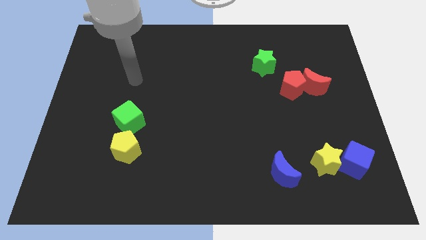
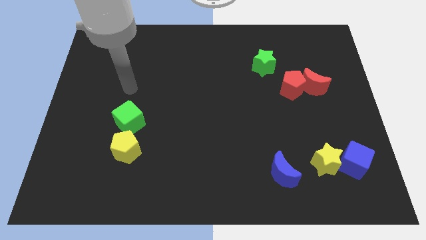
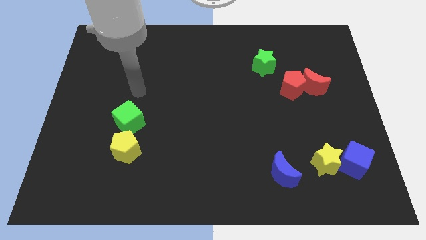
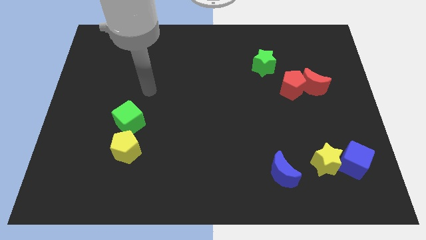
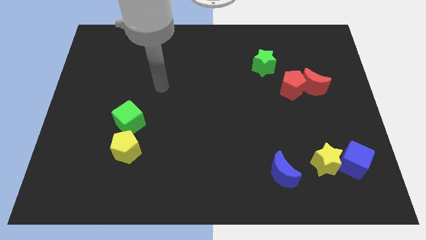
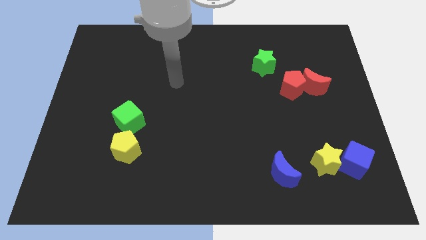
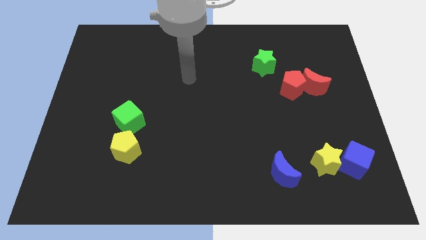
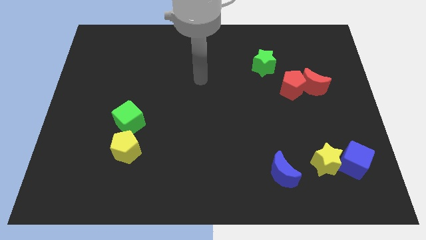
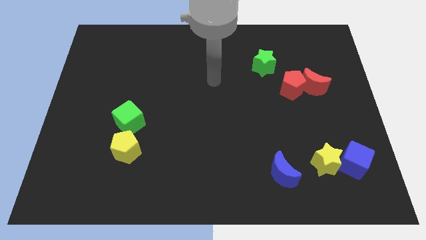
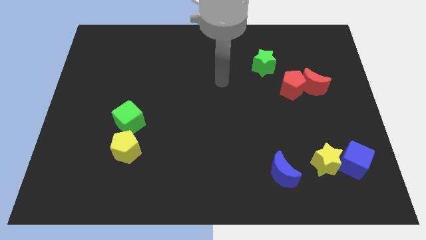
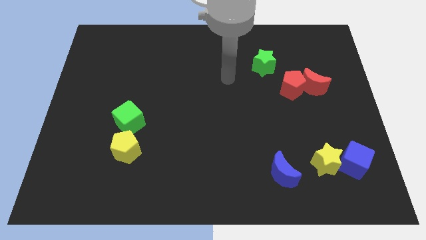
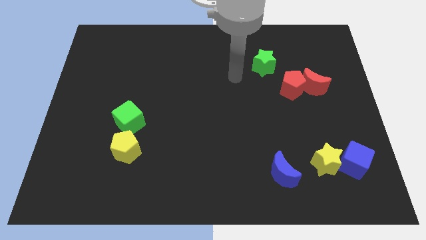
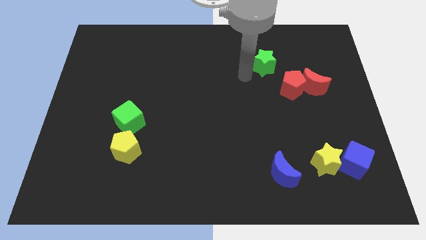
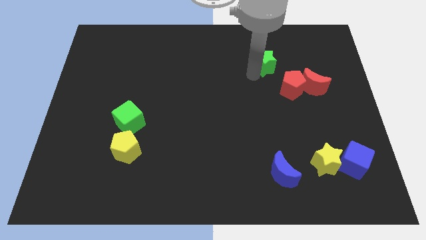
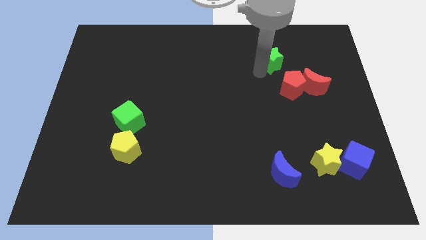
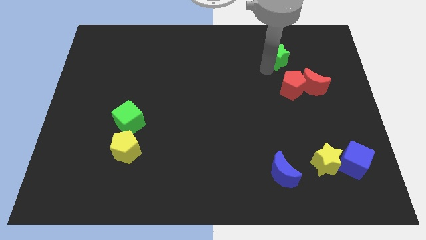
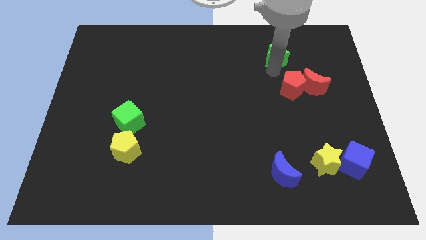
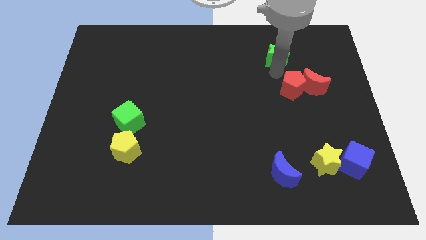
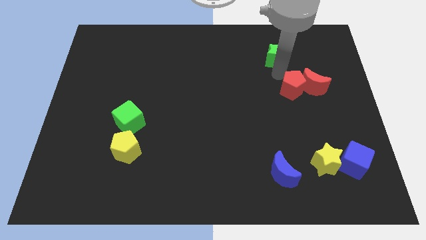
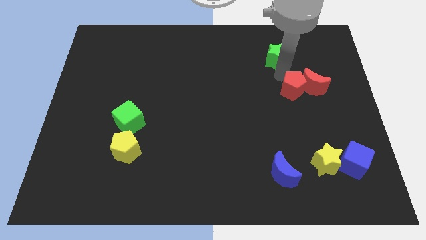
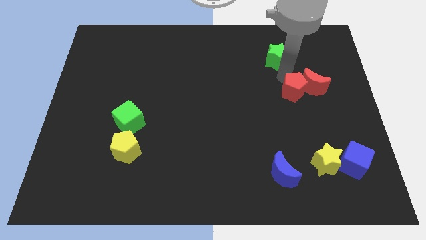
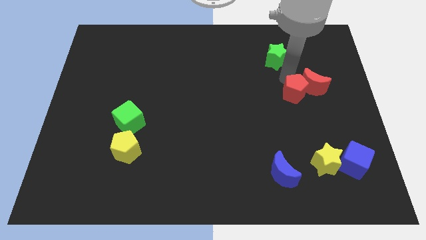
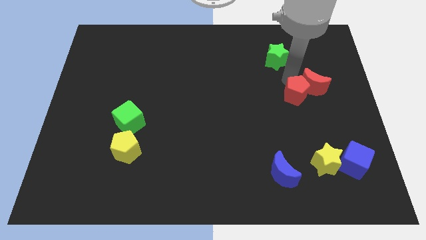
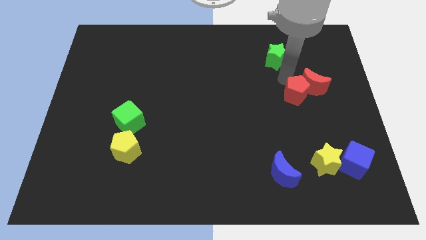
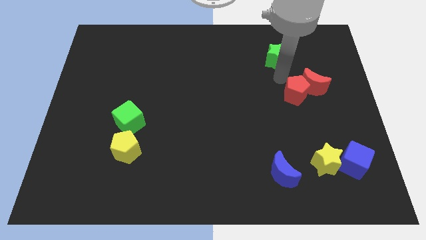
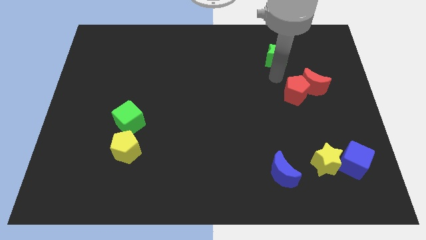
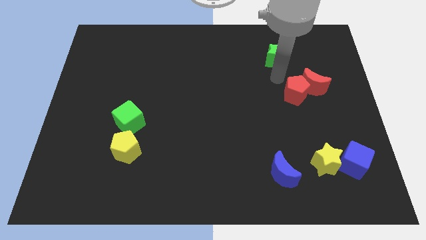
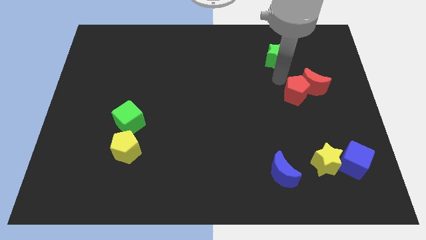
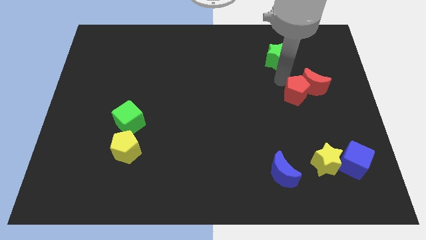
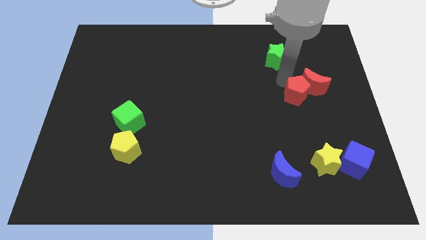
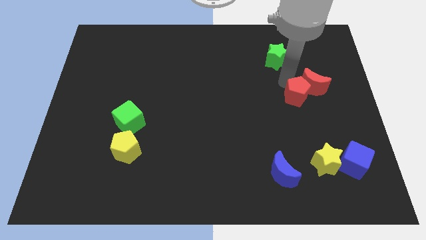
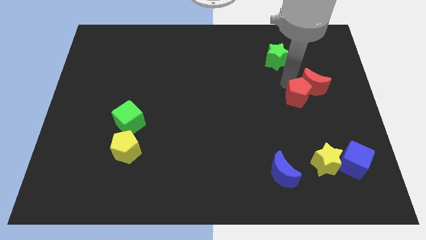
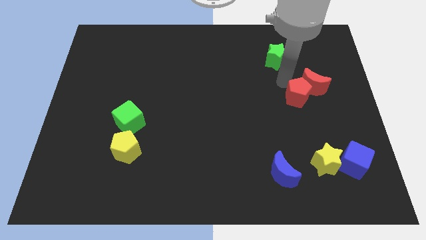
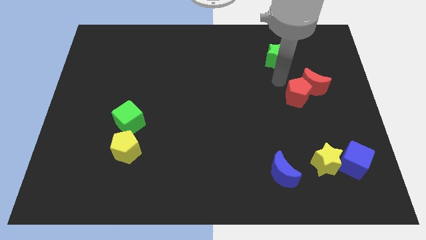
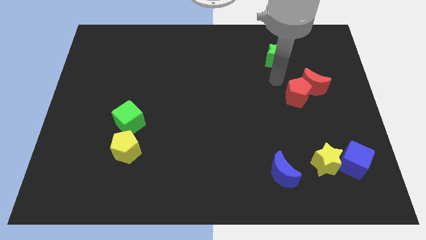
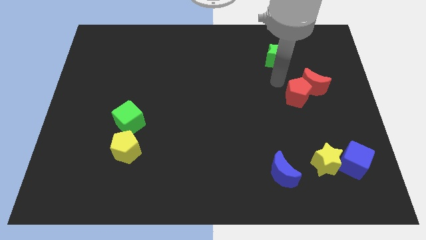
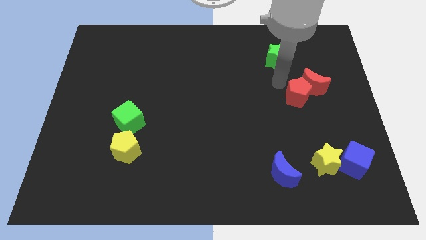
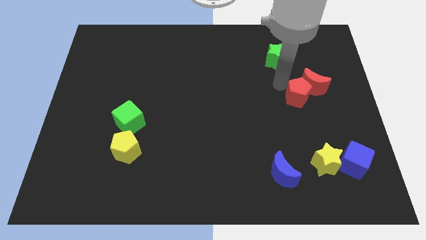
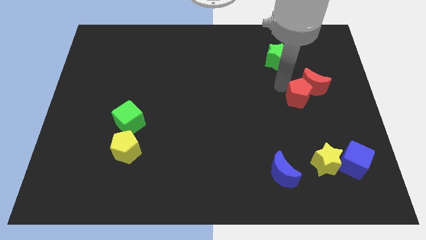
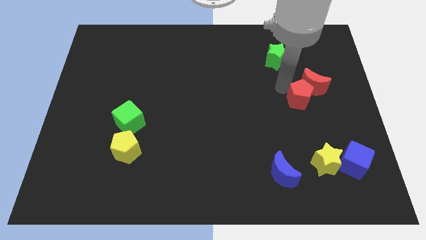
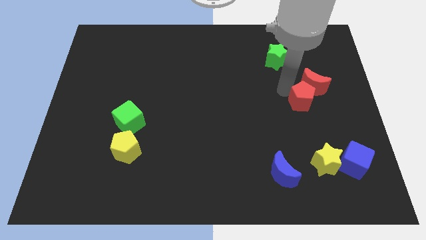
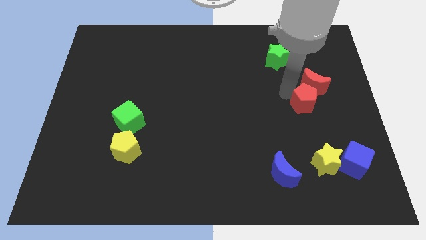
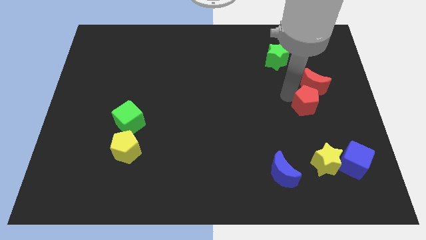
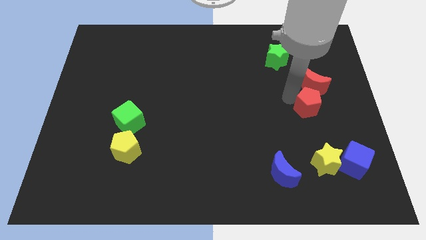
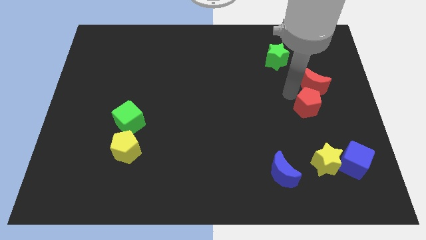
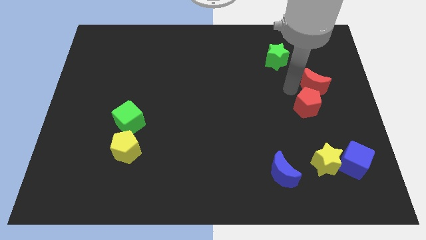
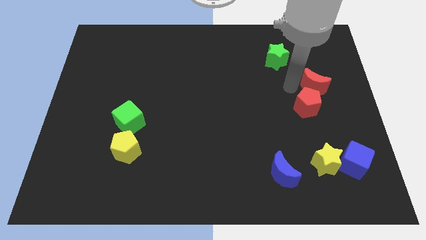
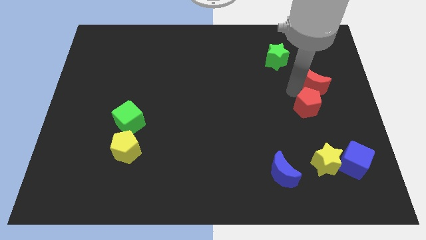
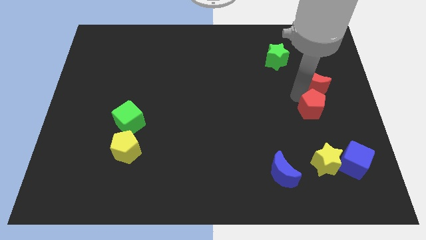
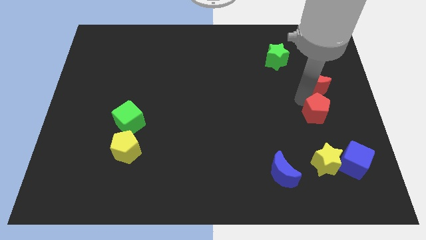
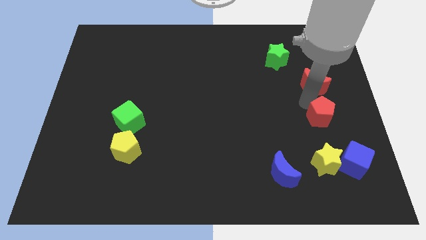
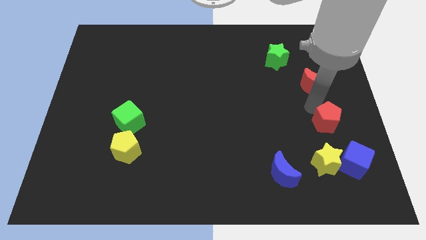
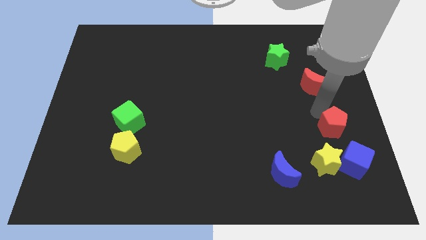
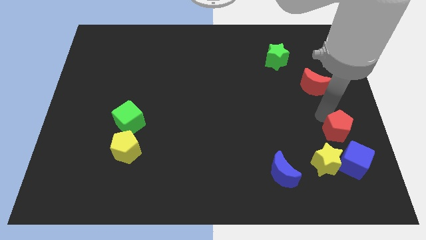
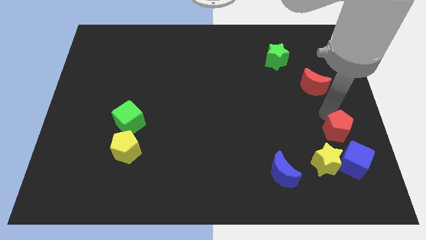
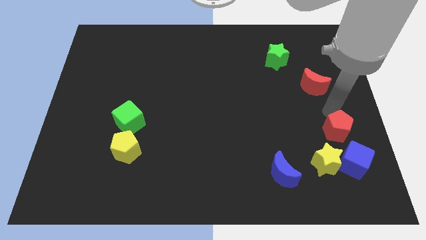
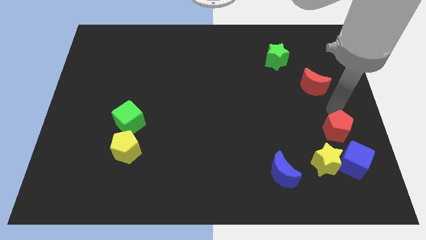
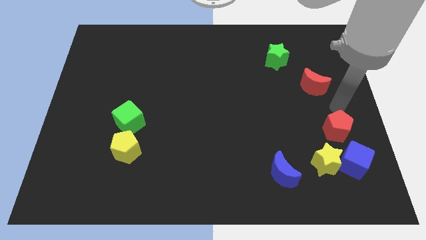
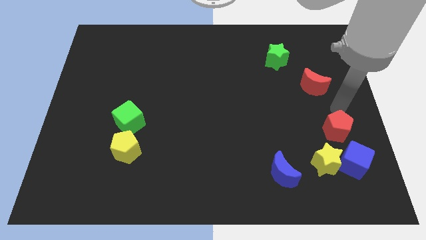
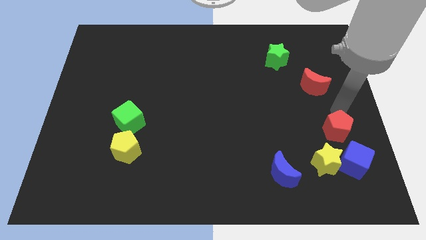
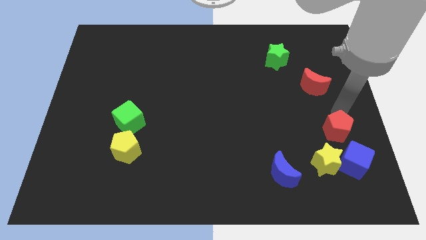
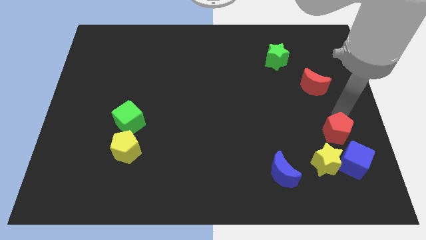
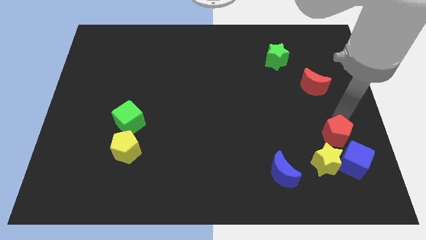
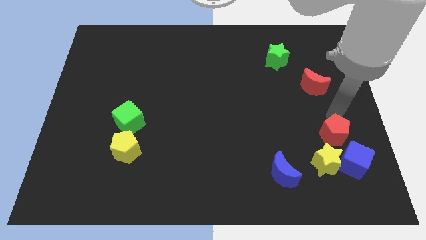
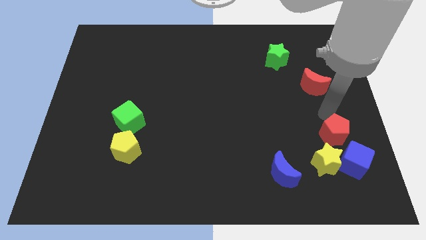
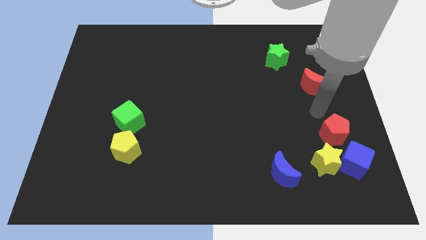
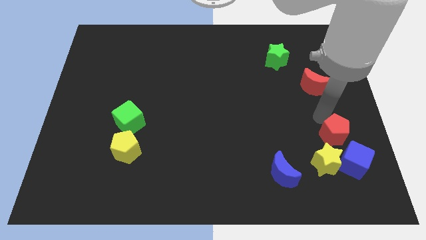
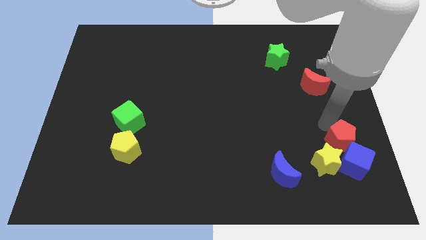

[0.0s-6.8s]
put the red pentagon next to the blue cube

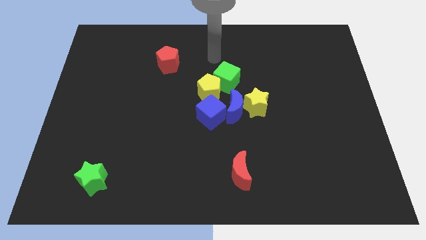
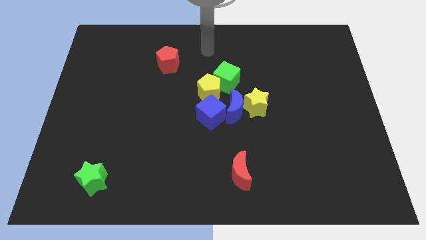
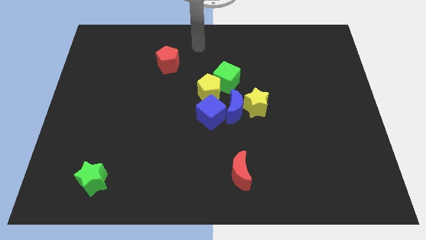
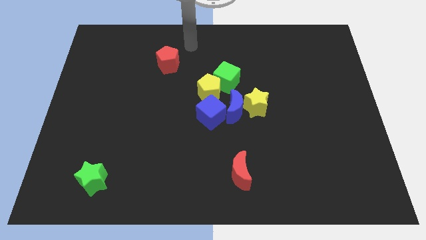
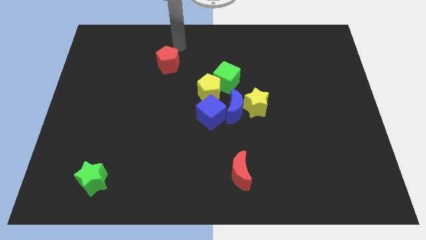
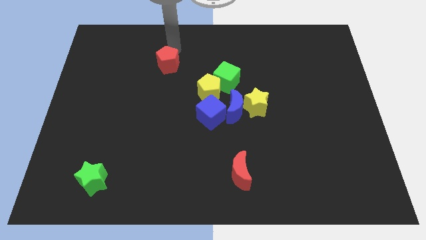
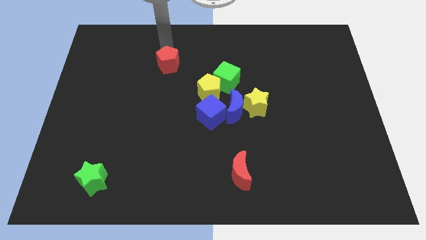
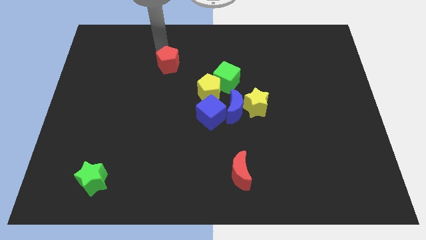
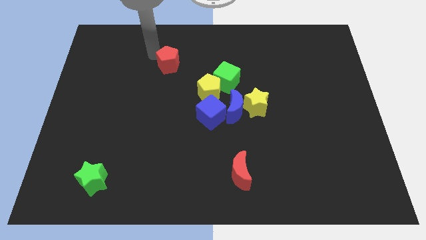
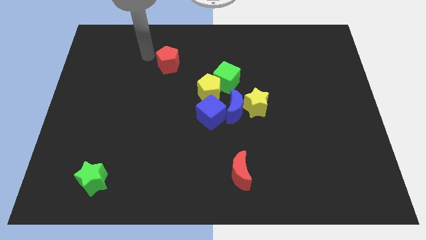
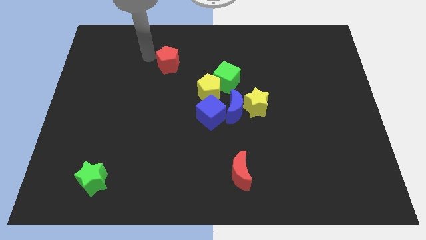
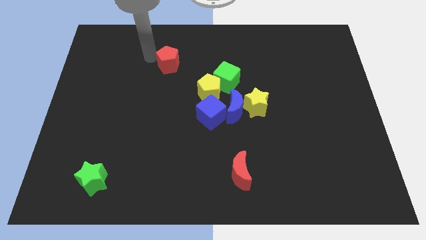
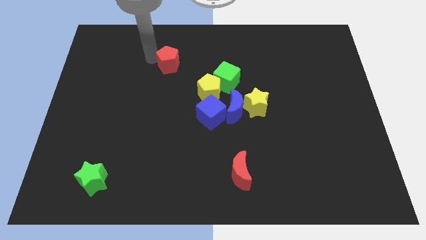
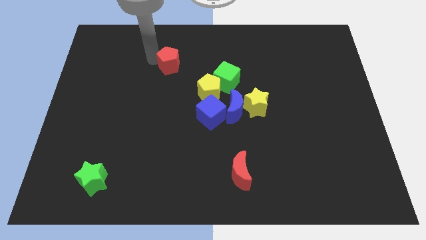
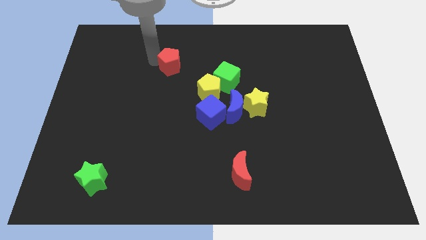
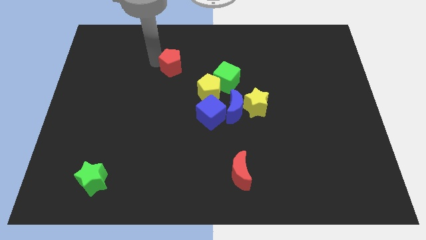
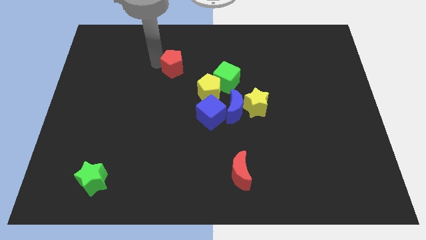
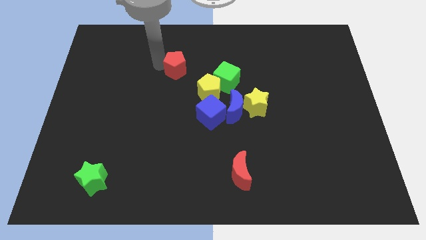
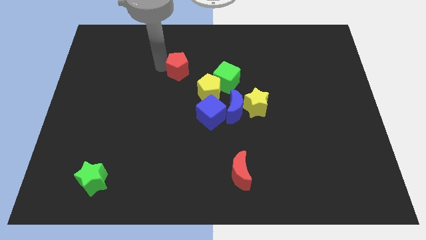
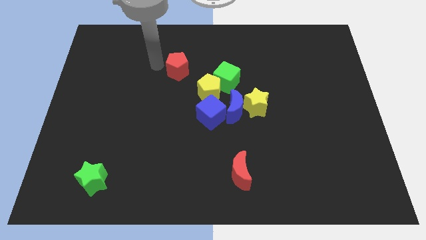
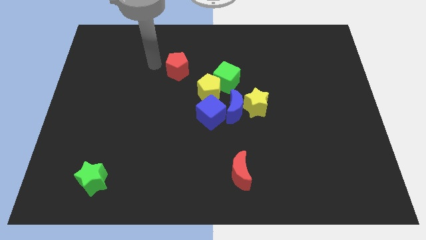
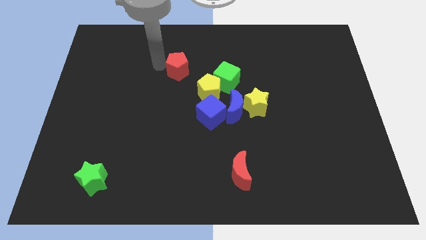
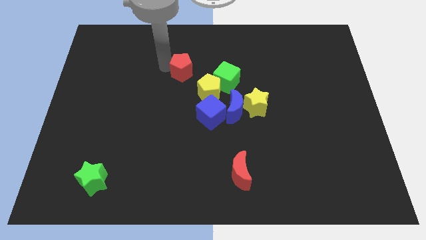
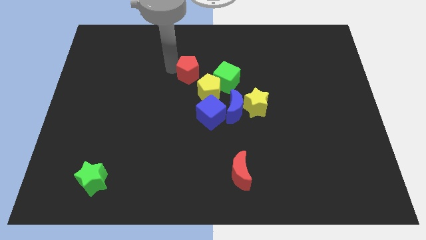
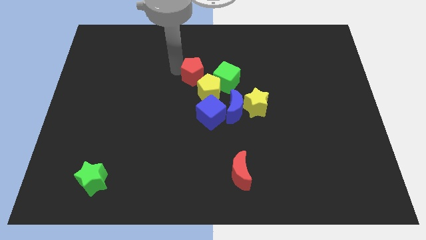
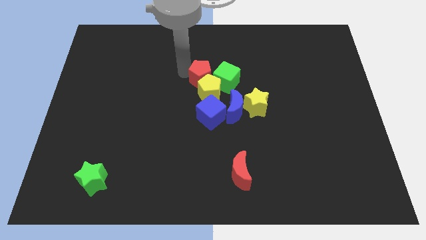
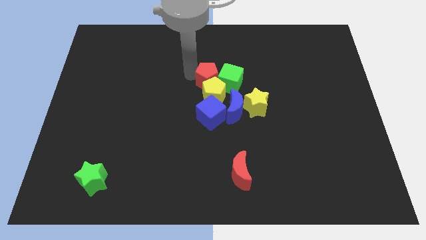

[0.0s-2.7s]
slide the red pentagon next to the green cube
